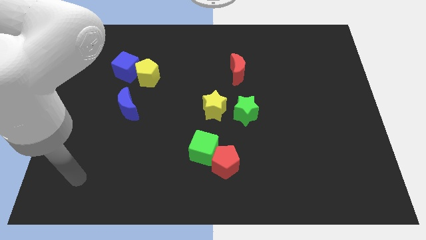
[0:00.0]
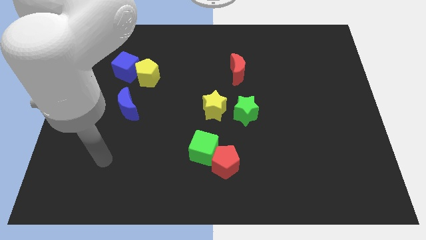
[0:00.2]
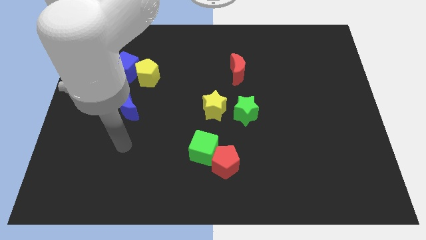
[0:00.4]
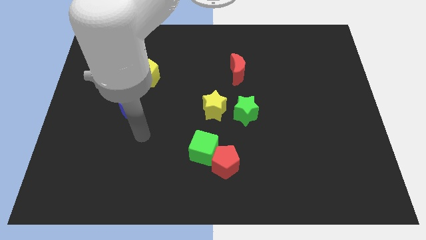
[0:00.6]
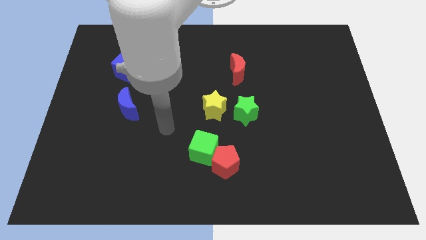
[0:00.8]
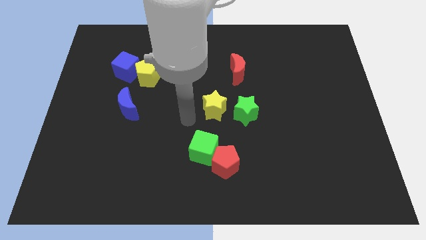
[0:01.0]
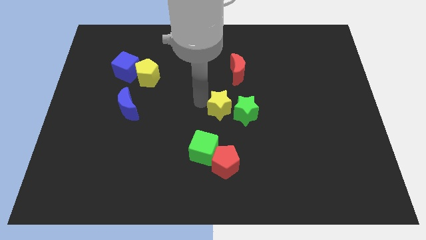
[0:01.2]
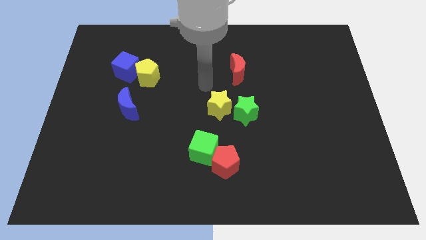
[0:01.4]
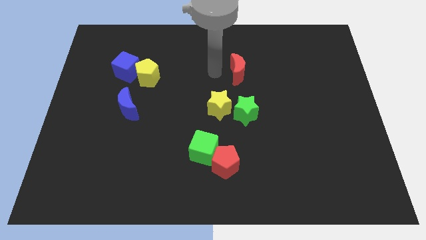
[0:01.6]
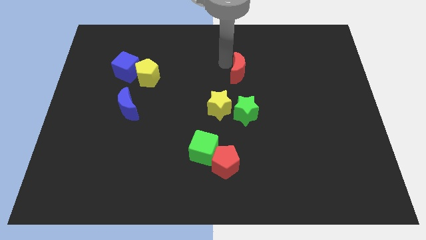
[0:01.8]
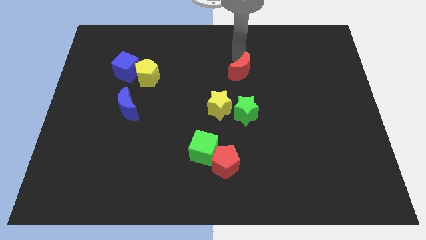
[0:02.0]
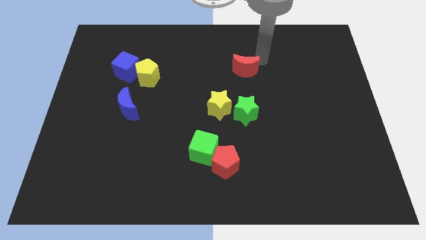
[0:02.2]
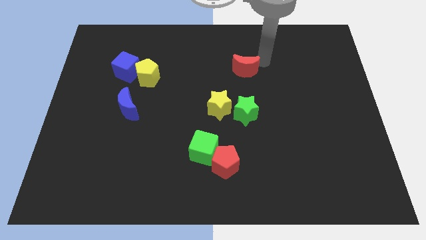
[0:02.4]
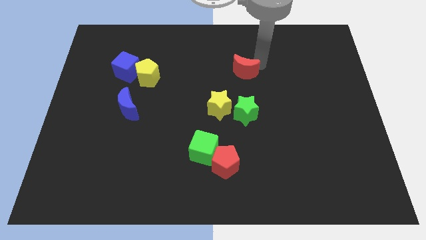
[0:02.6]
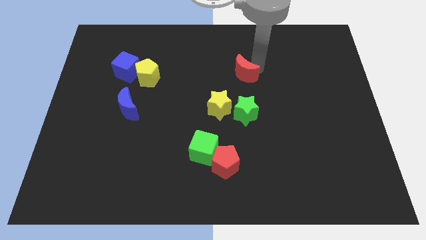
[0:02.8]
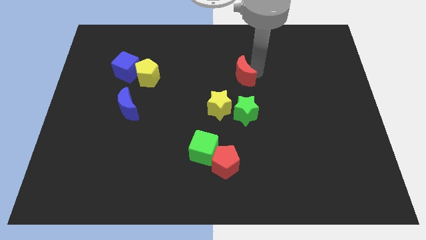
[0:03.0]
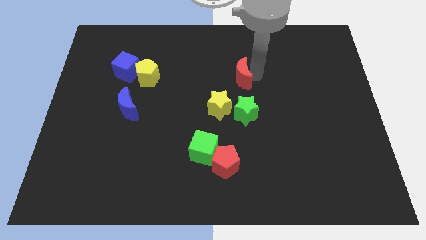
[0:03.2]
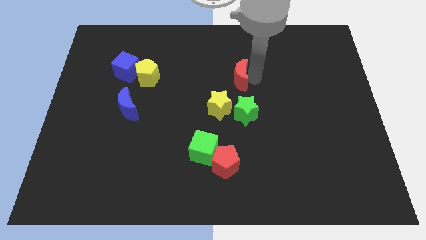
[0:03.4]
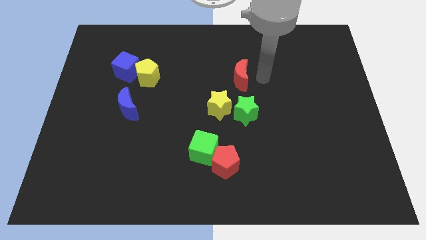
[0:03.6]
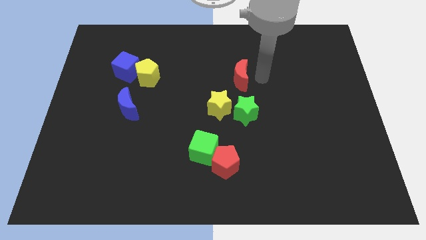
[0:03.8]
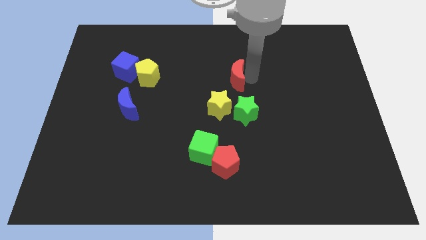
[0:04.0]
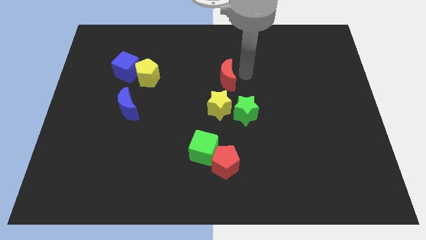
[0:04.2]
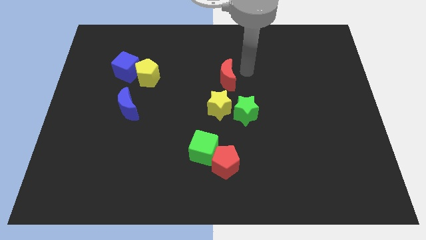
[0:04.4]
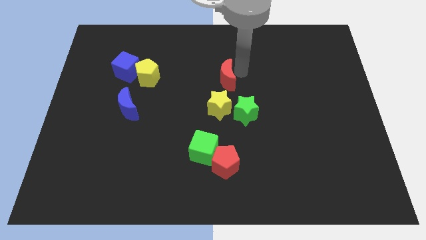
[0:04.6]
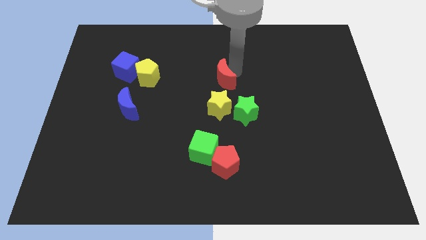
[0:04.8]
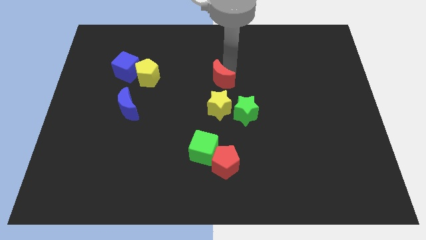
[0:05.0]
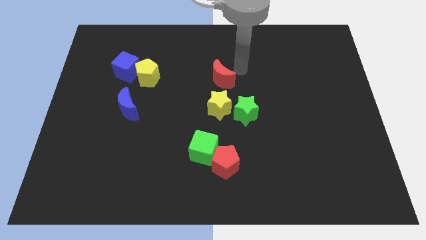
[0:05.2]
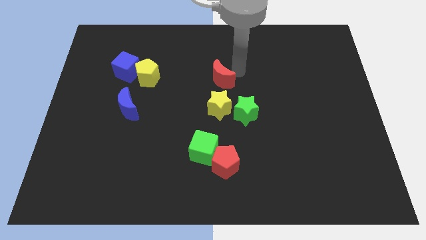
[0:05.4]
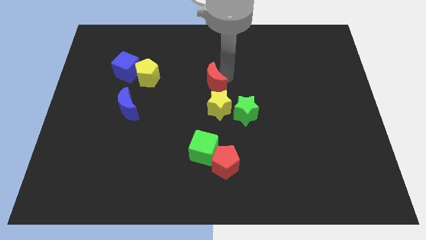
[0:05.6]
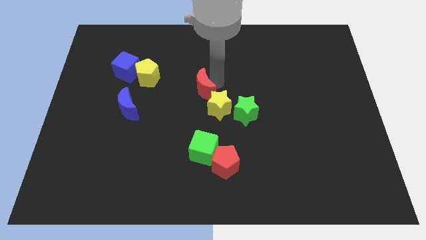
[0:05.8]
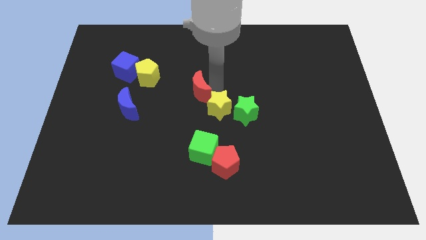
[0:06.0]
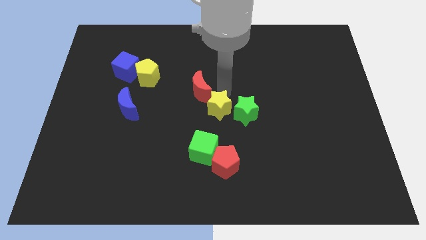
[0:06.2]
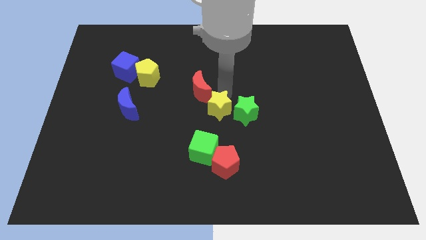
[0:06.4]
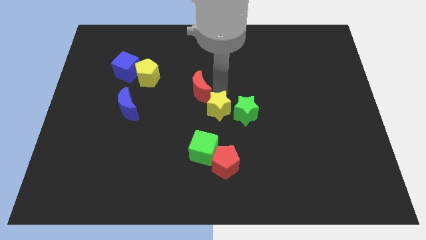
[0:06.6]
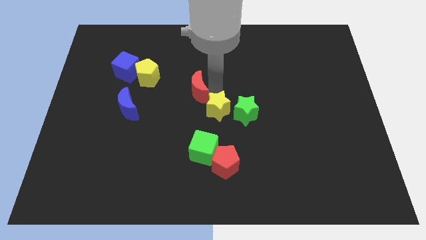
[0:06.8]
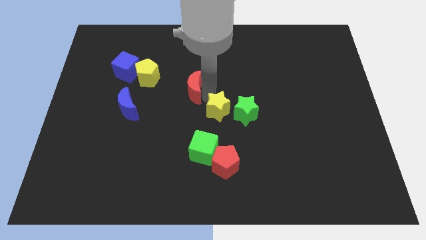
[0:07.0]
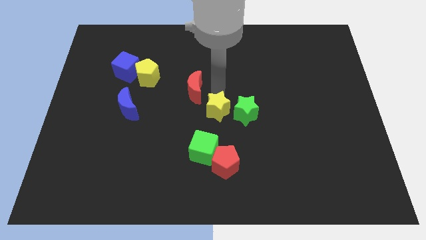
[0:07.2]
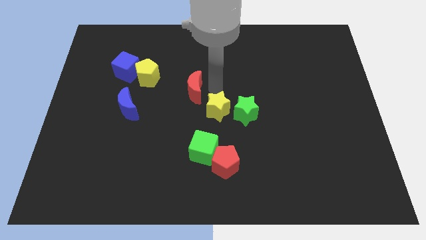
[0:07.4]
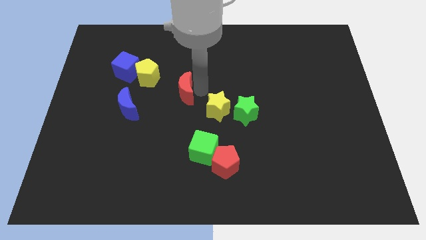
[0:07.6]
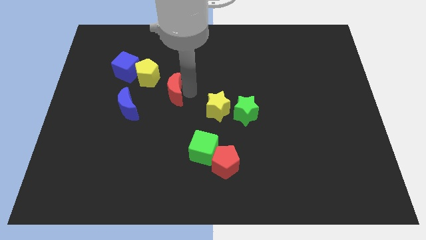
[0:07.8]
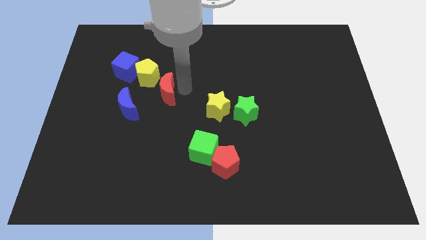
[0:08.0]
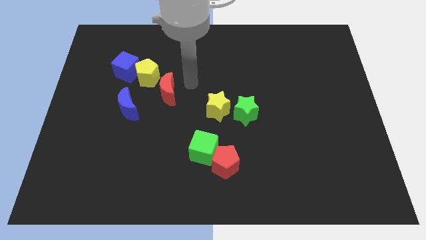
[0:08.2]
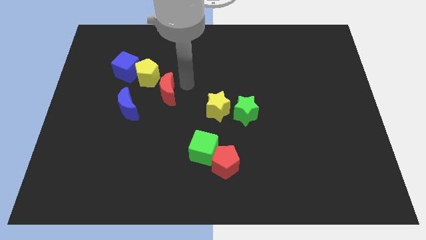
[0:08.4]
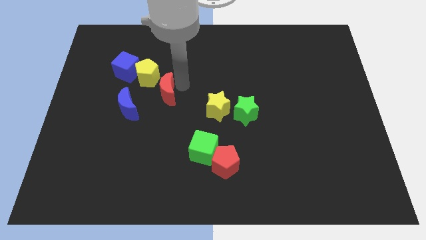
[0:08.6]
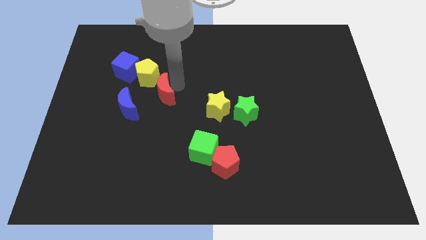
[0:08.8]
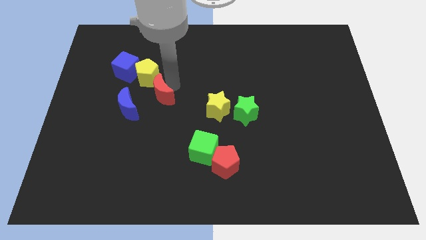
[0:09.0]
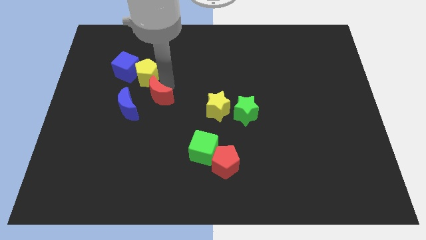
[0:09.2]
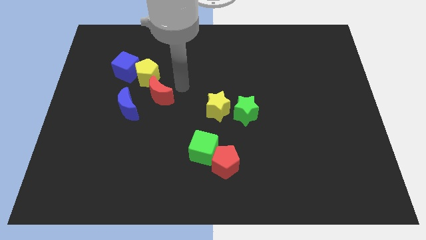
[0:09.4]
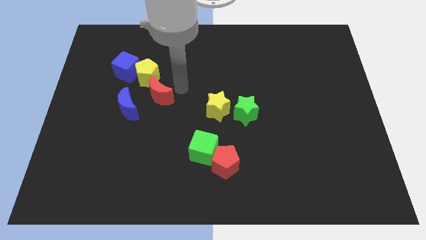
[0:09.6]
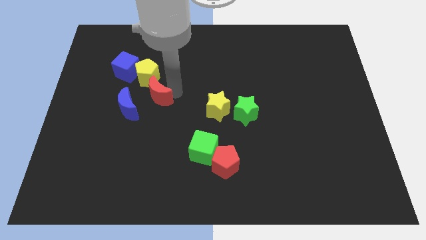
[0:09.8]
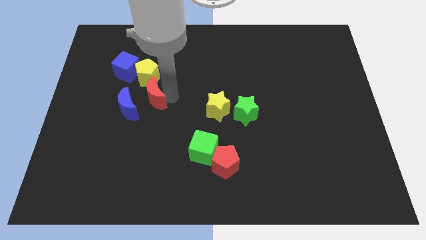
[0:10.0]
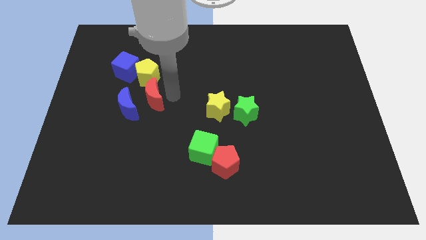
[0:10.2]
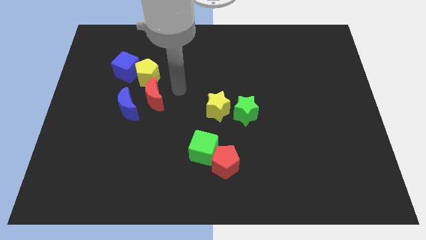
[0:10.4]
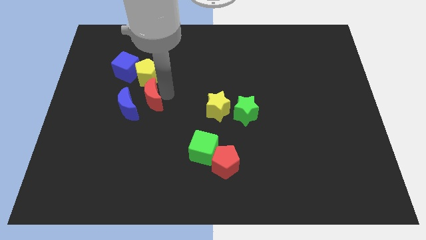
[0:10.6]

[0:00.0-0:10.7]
move the red moon close to the blue moon

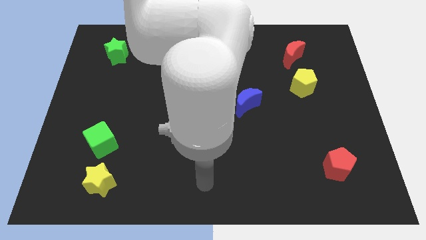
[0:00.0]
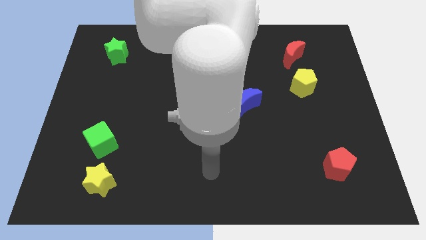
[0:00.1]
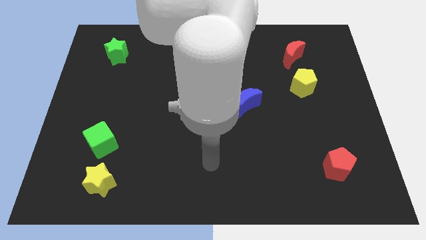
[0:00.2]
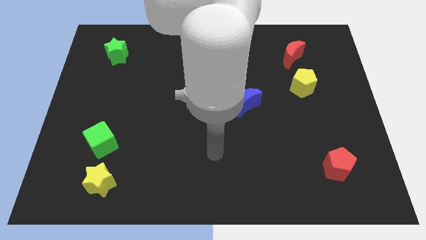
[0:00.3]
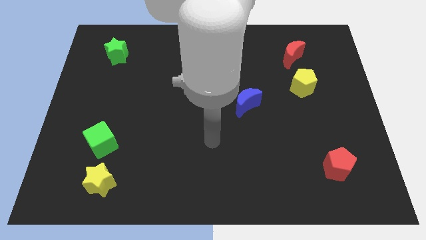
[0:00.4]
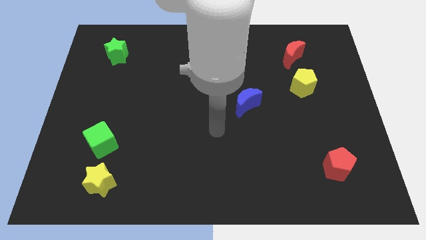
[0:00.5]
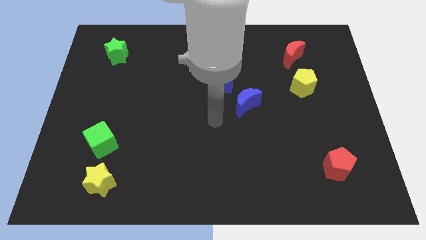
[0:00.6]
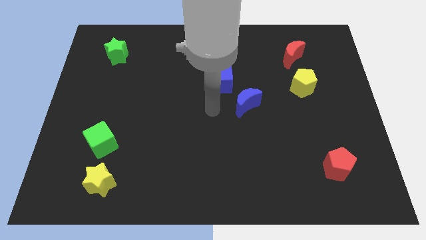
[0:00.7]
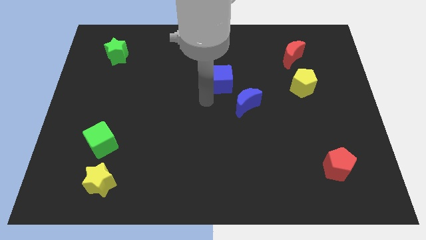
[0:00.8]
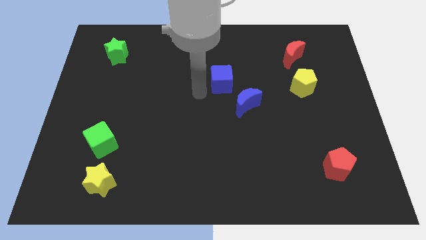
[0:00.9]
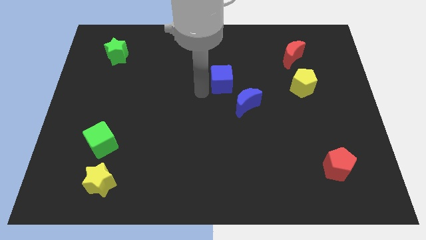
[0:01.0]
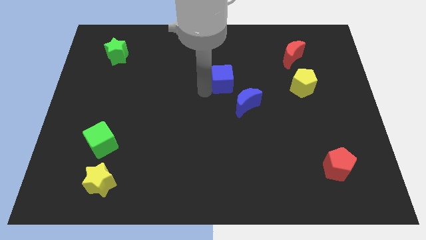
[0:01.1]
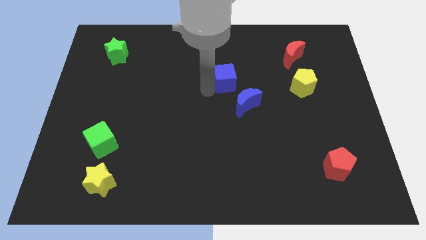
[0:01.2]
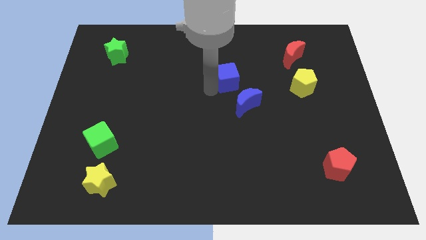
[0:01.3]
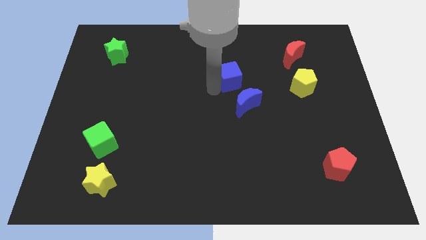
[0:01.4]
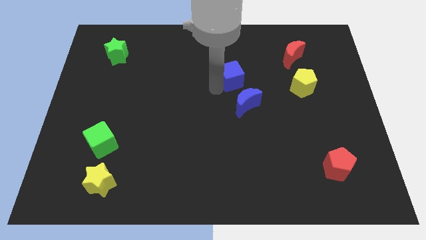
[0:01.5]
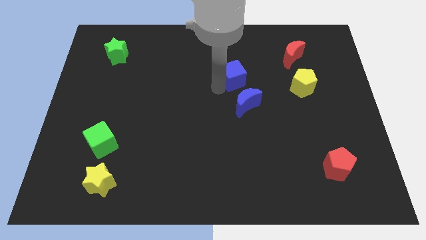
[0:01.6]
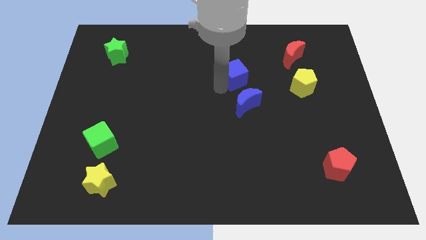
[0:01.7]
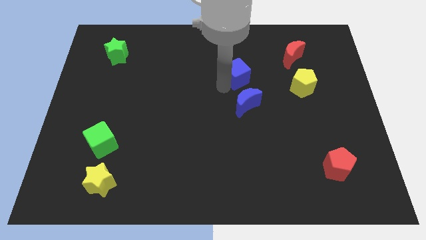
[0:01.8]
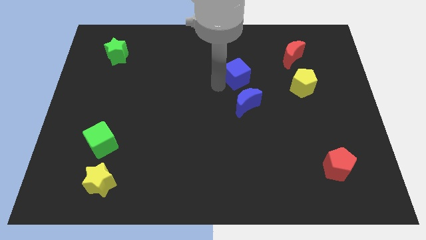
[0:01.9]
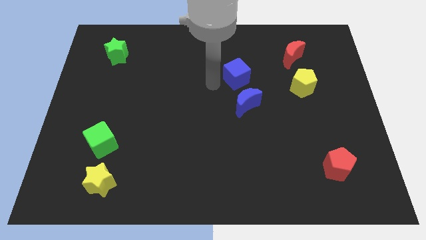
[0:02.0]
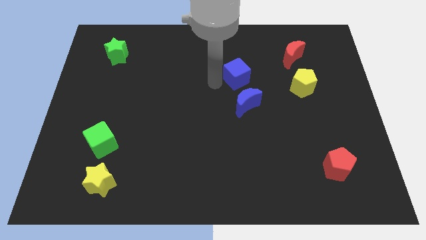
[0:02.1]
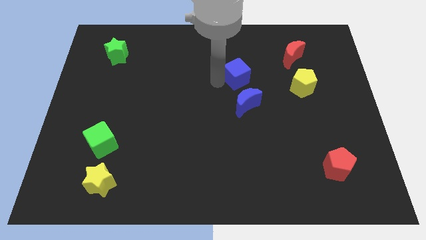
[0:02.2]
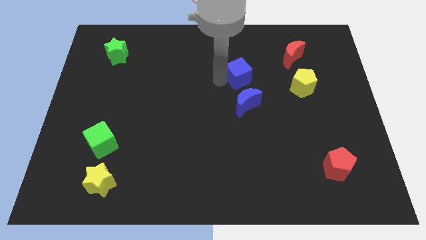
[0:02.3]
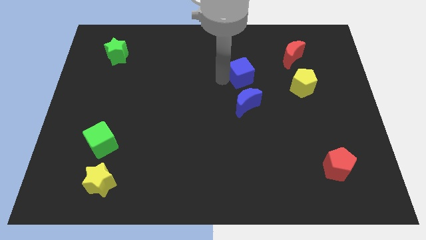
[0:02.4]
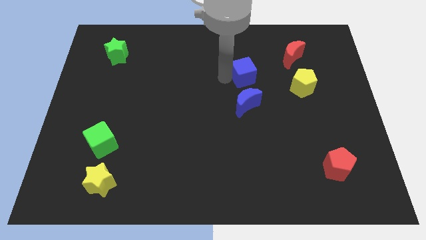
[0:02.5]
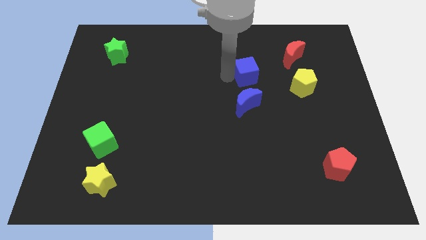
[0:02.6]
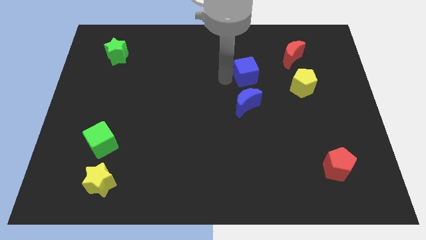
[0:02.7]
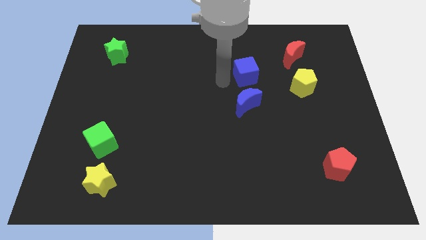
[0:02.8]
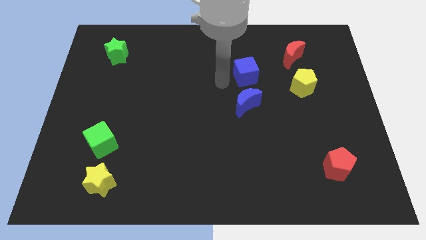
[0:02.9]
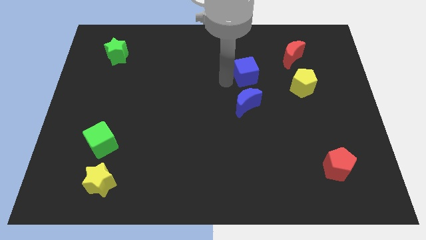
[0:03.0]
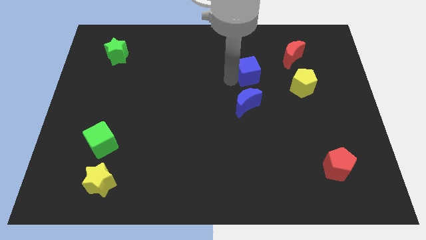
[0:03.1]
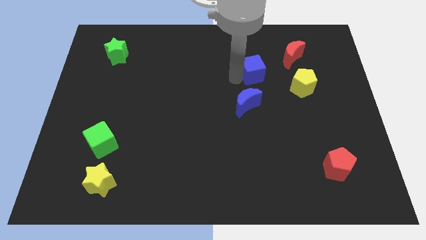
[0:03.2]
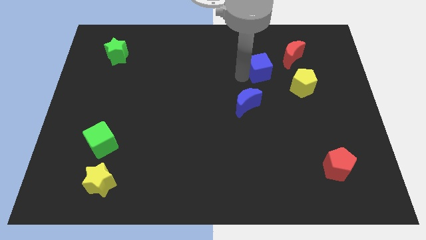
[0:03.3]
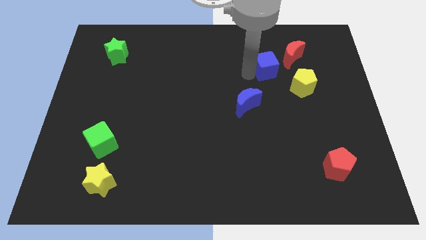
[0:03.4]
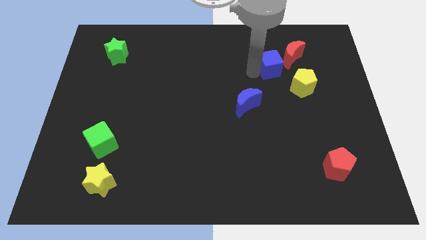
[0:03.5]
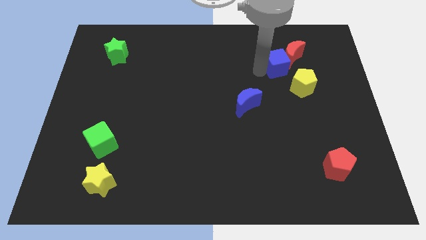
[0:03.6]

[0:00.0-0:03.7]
move the blue cube towards the red moon
